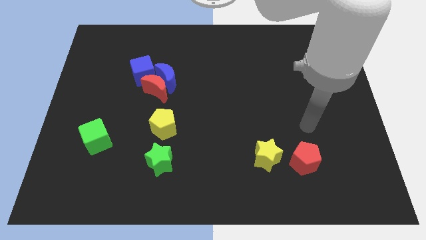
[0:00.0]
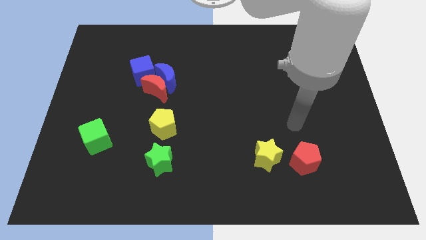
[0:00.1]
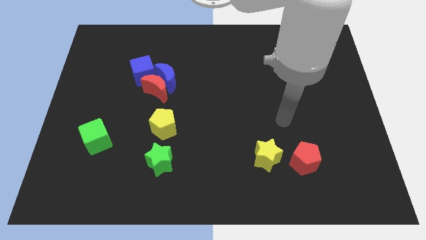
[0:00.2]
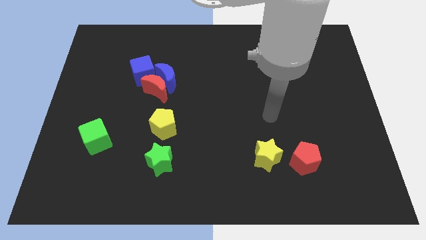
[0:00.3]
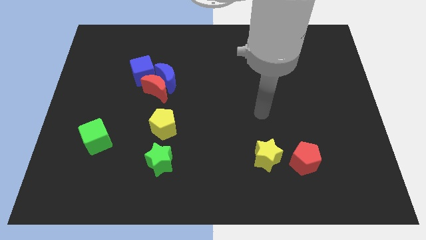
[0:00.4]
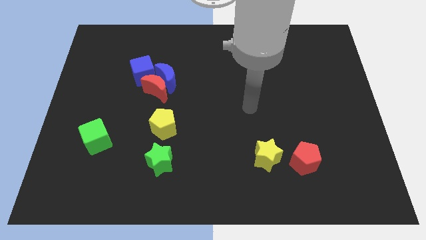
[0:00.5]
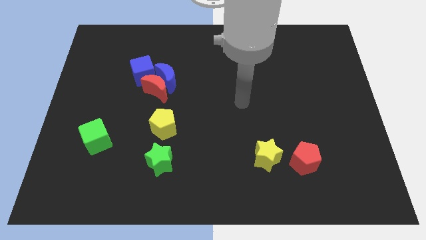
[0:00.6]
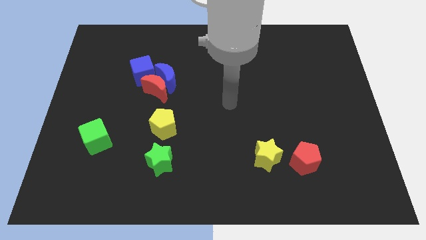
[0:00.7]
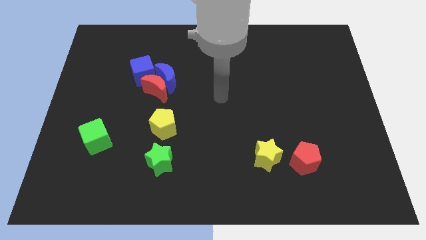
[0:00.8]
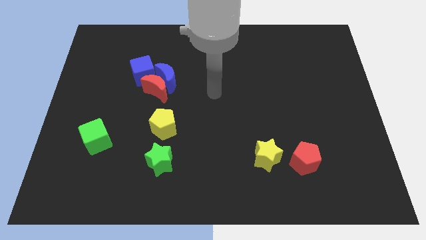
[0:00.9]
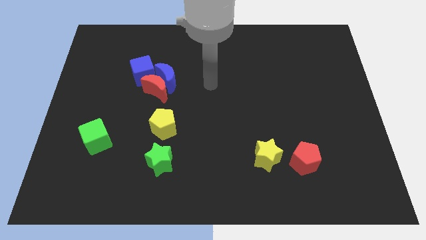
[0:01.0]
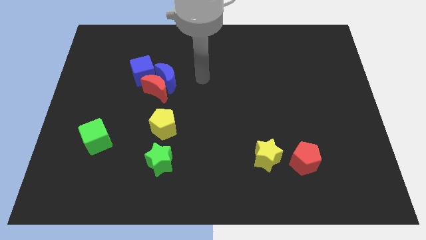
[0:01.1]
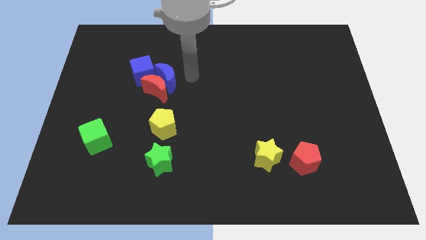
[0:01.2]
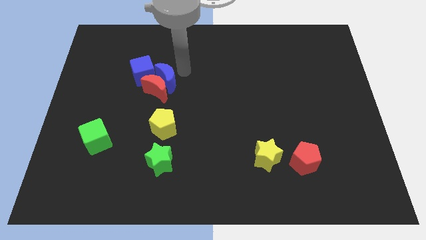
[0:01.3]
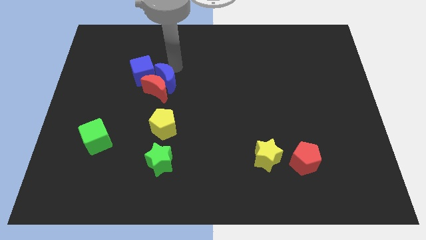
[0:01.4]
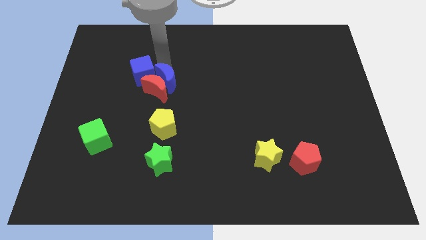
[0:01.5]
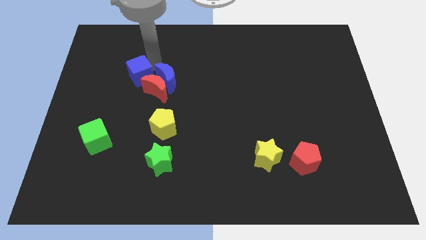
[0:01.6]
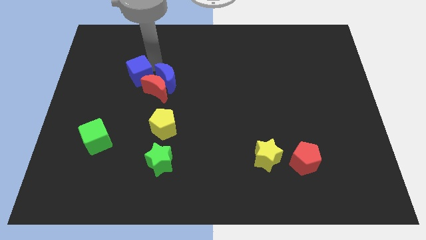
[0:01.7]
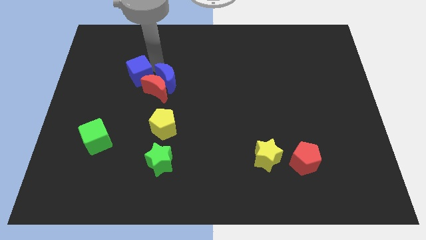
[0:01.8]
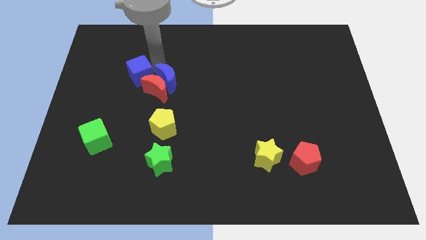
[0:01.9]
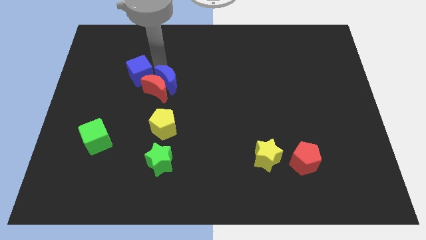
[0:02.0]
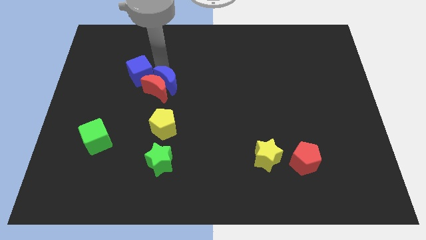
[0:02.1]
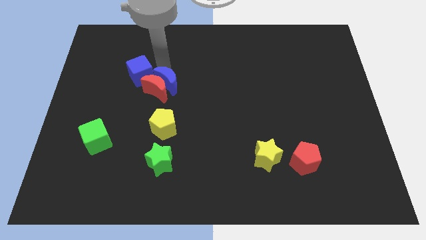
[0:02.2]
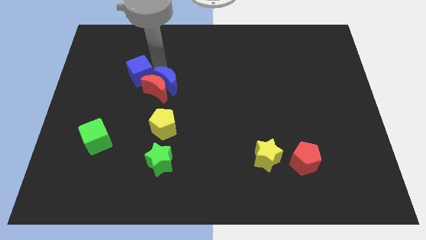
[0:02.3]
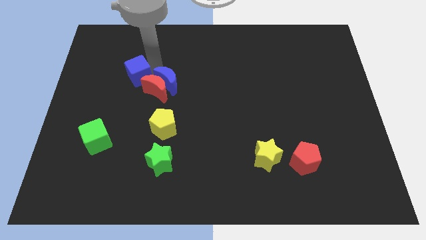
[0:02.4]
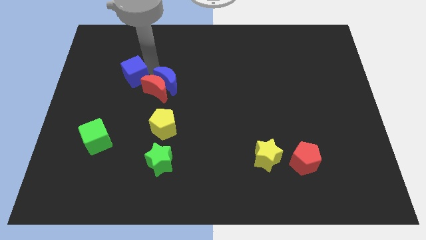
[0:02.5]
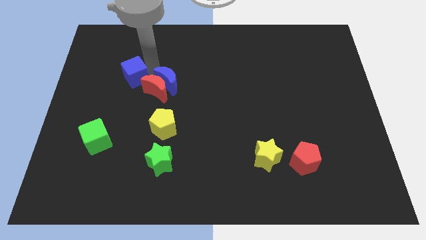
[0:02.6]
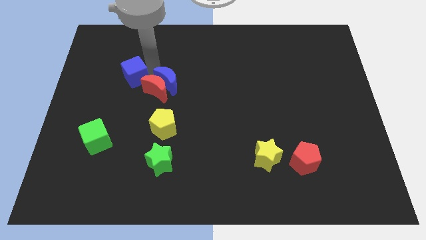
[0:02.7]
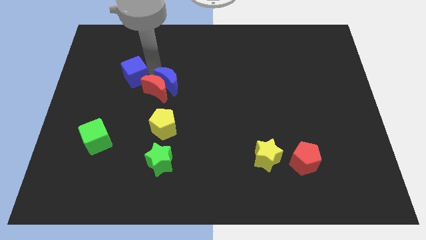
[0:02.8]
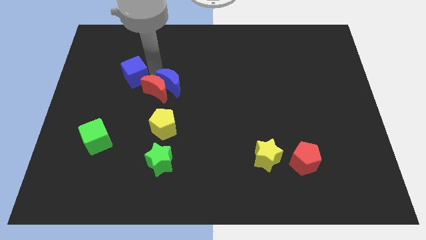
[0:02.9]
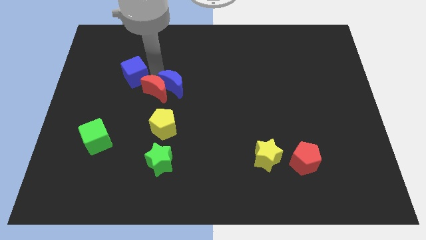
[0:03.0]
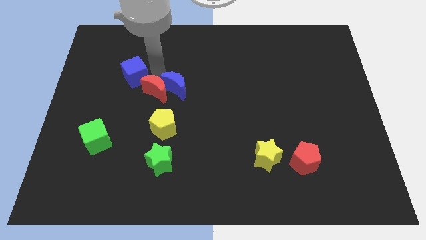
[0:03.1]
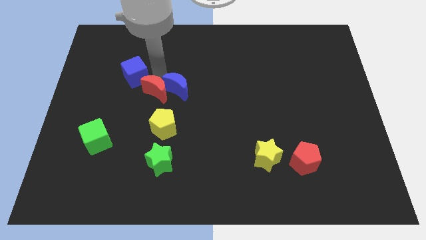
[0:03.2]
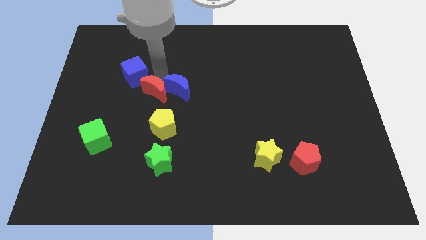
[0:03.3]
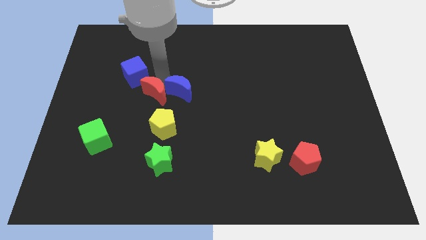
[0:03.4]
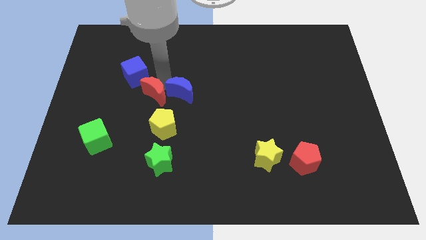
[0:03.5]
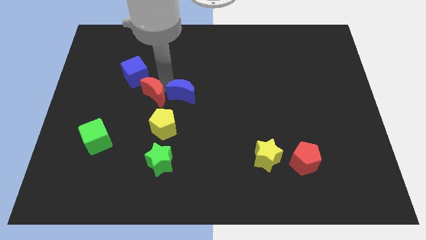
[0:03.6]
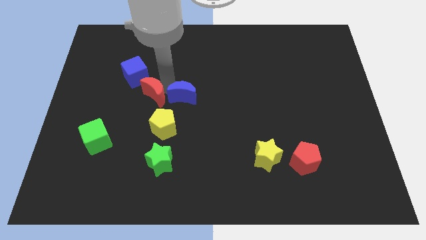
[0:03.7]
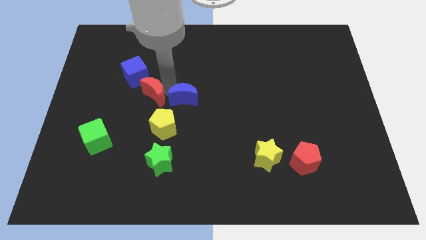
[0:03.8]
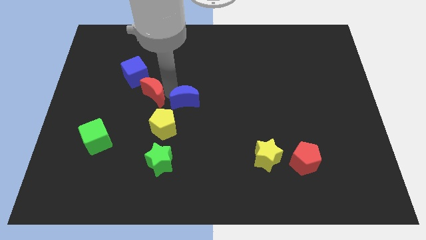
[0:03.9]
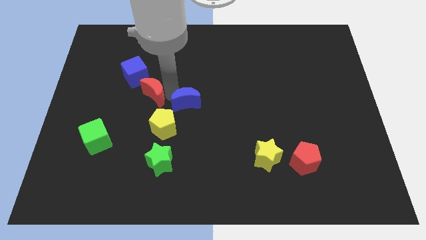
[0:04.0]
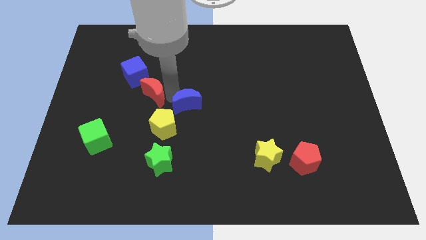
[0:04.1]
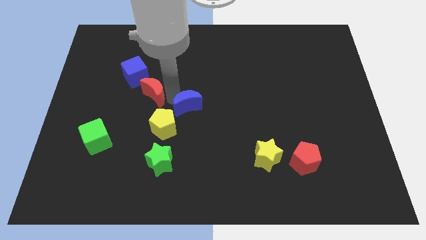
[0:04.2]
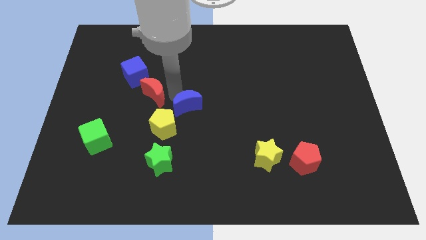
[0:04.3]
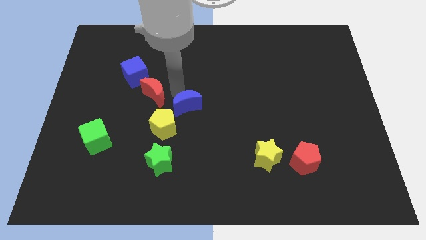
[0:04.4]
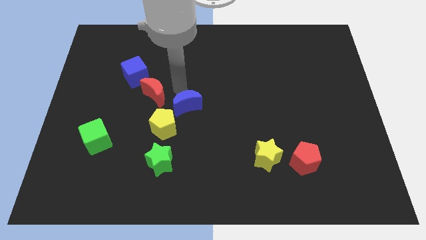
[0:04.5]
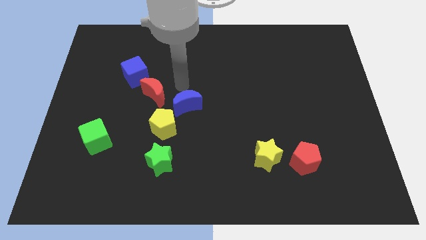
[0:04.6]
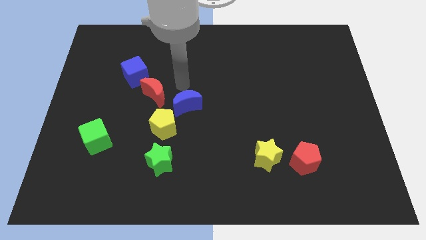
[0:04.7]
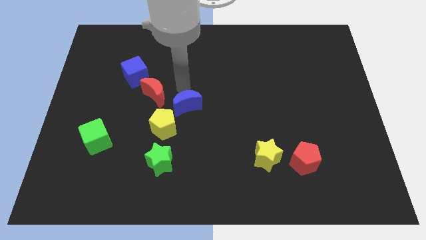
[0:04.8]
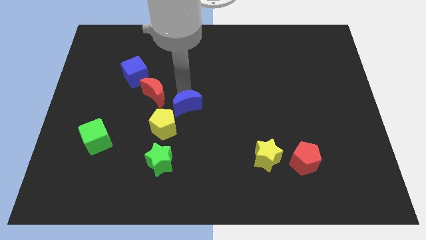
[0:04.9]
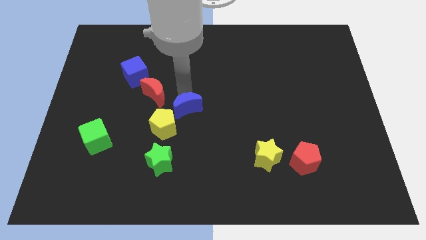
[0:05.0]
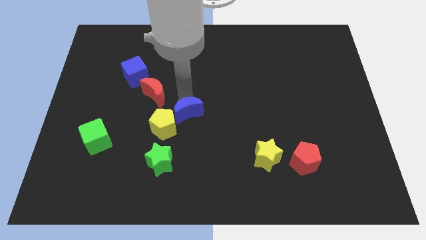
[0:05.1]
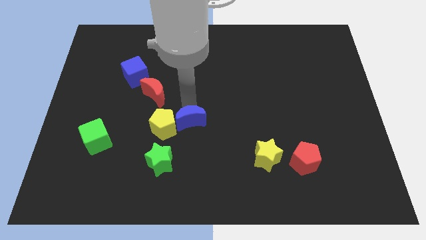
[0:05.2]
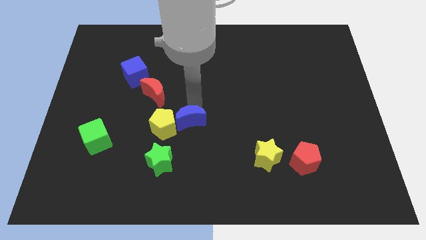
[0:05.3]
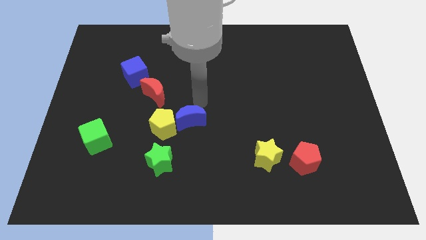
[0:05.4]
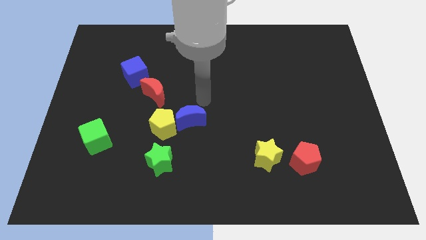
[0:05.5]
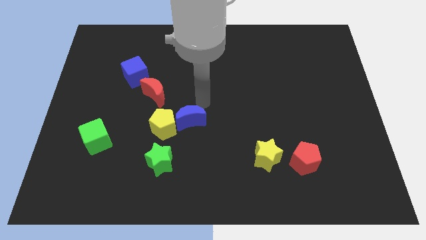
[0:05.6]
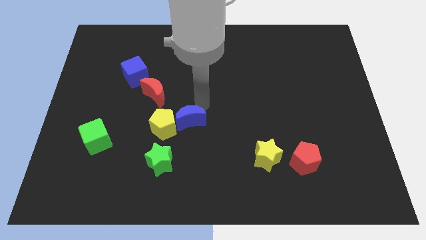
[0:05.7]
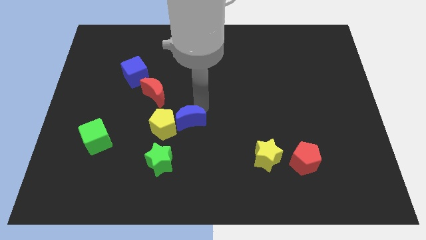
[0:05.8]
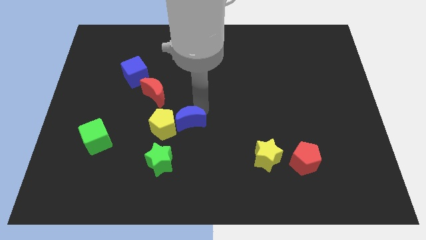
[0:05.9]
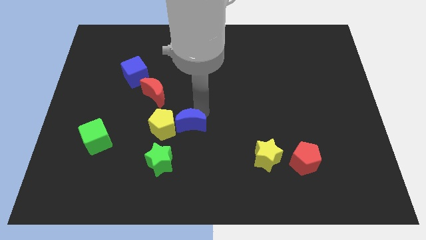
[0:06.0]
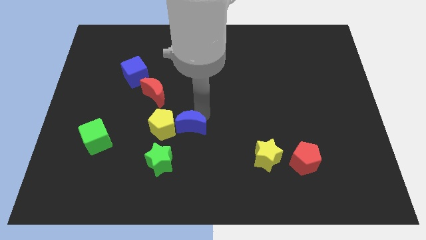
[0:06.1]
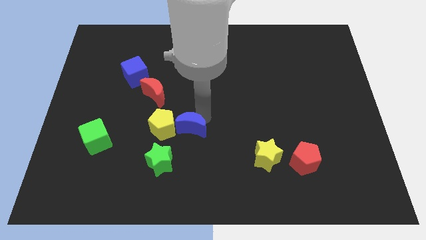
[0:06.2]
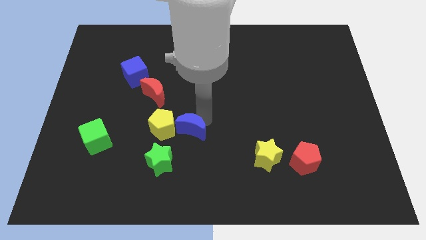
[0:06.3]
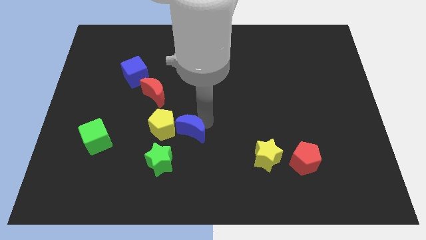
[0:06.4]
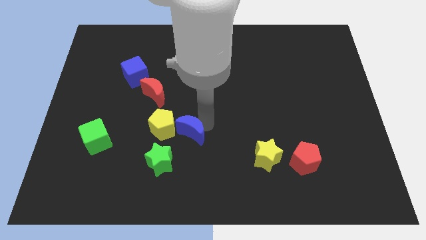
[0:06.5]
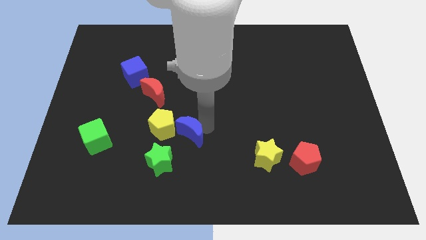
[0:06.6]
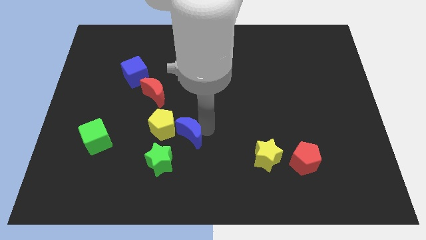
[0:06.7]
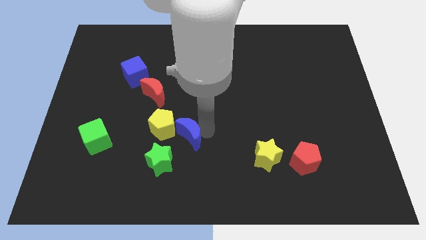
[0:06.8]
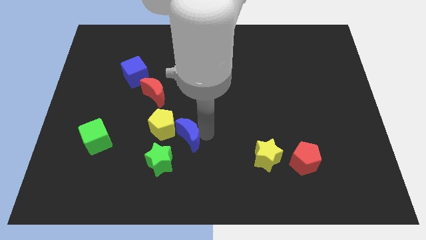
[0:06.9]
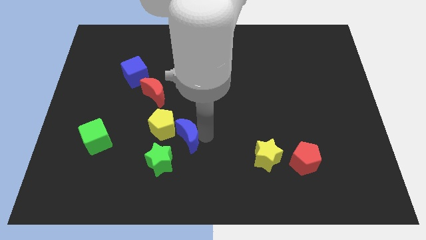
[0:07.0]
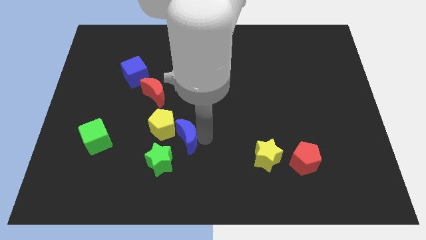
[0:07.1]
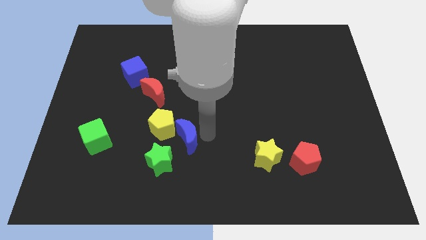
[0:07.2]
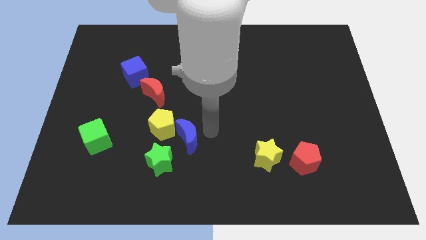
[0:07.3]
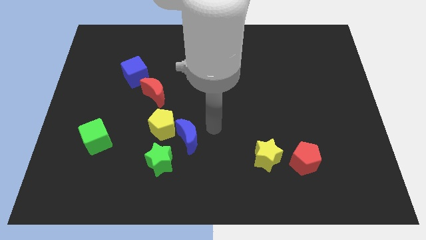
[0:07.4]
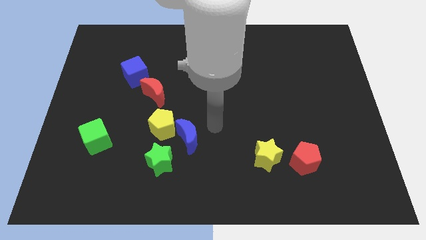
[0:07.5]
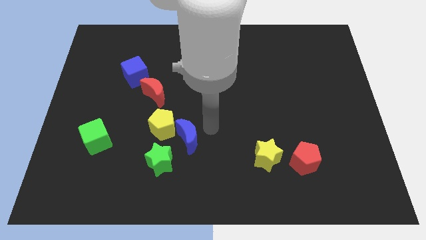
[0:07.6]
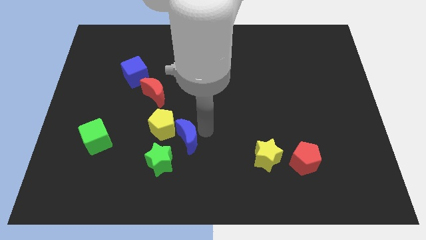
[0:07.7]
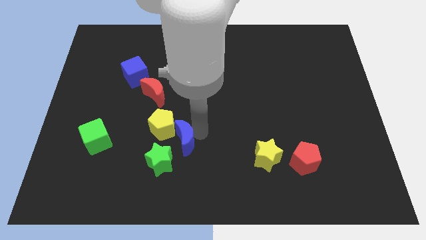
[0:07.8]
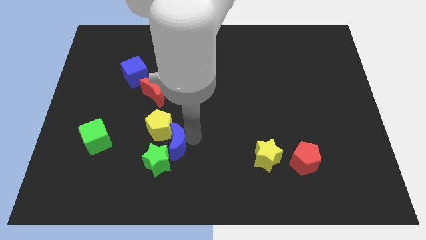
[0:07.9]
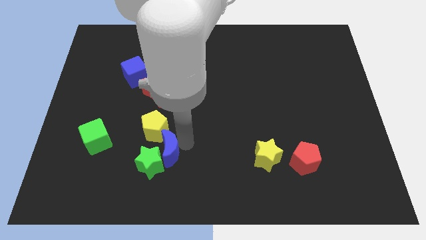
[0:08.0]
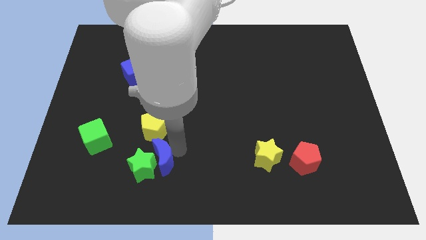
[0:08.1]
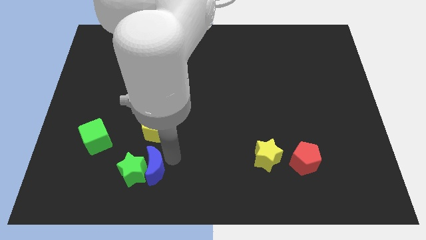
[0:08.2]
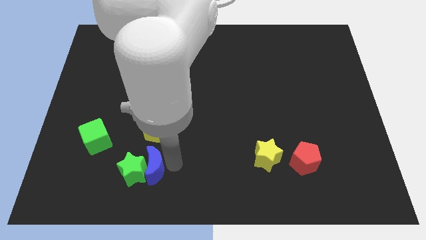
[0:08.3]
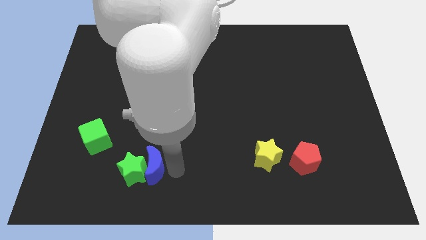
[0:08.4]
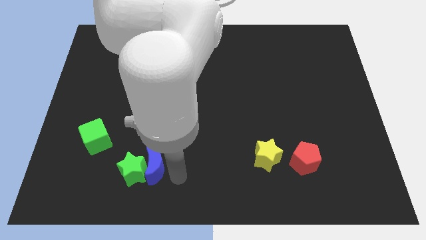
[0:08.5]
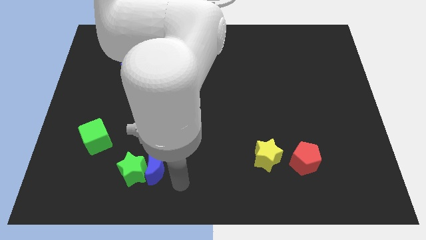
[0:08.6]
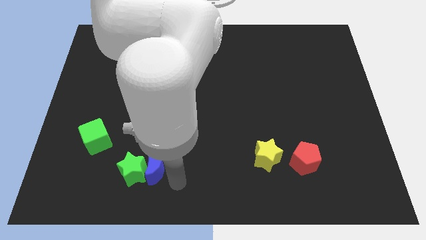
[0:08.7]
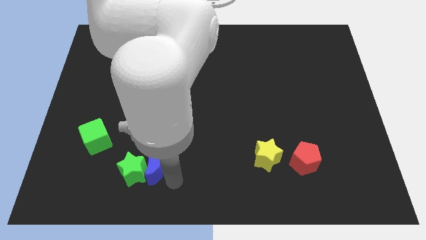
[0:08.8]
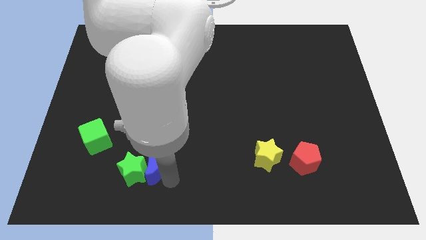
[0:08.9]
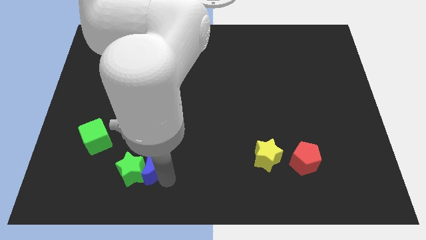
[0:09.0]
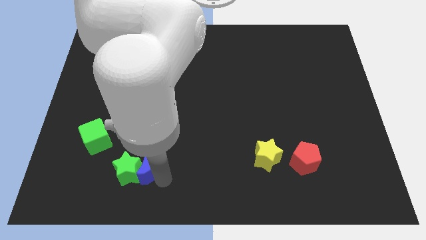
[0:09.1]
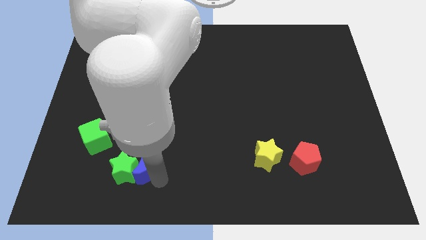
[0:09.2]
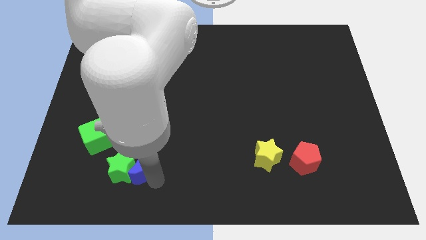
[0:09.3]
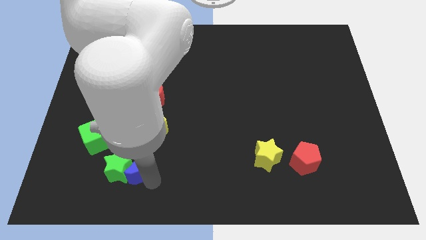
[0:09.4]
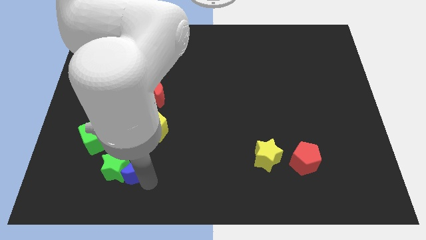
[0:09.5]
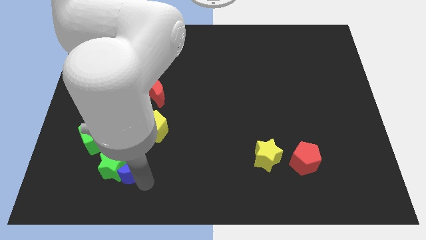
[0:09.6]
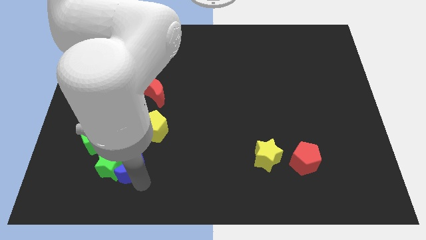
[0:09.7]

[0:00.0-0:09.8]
push the blue moon to the bottom left side of the yellow pentagon
